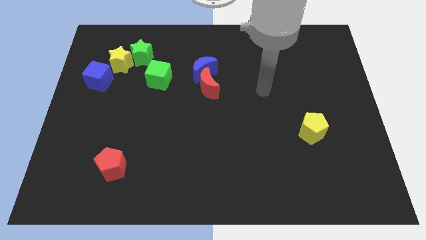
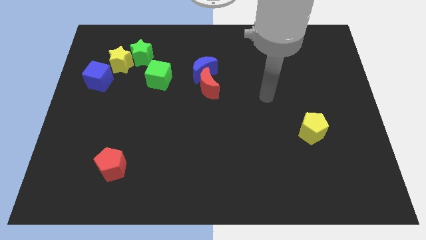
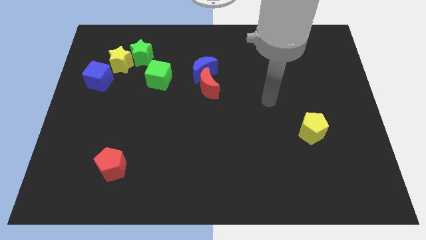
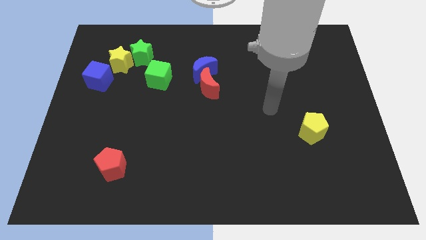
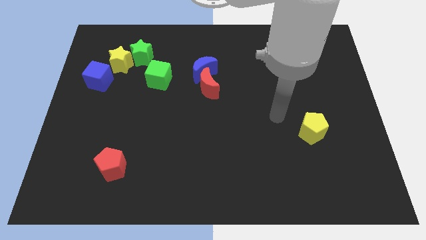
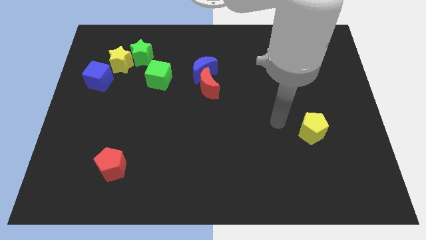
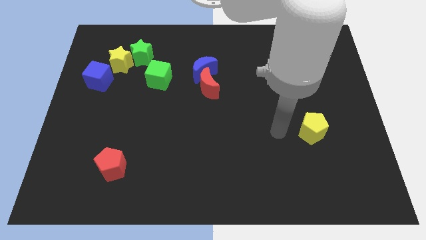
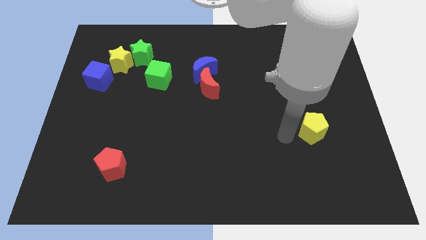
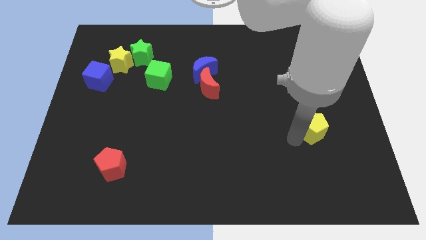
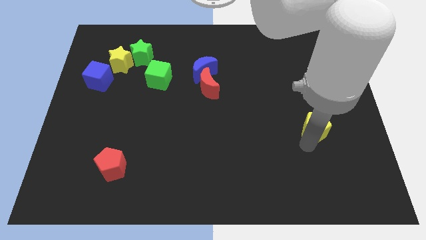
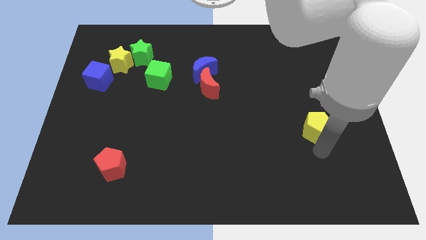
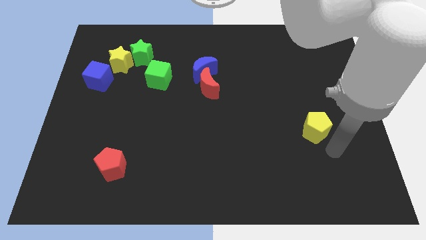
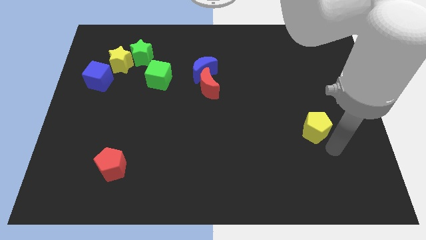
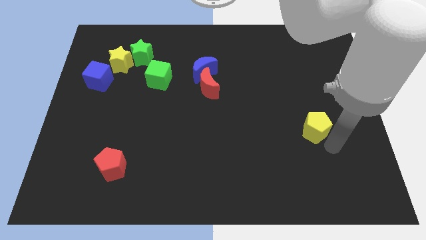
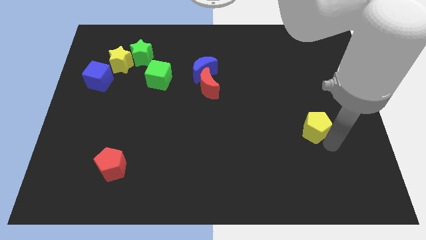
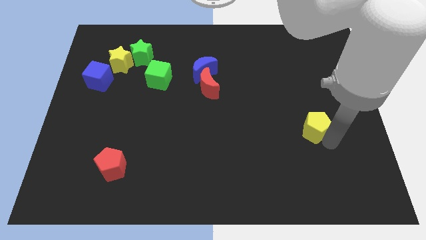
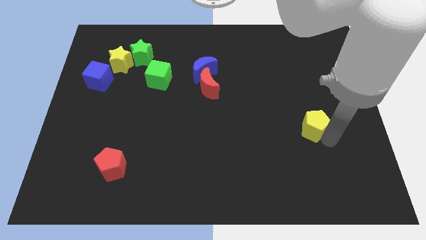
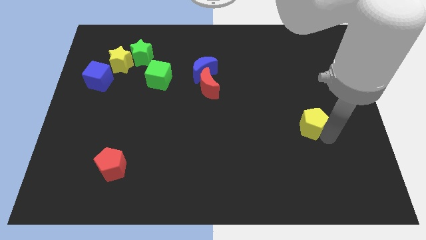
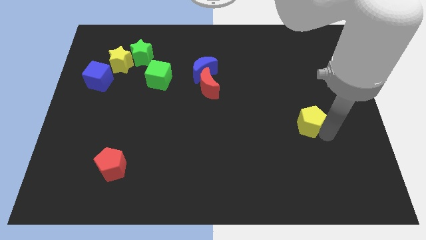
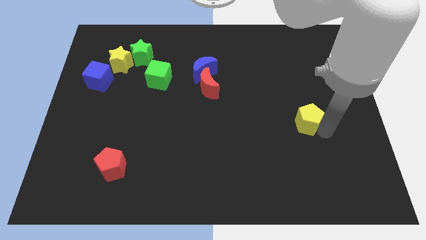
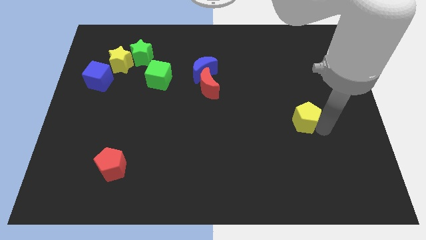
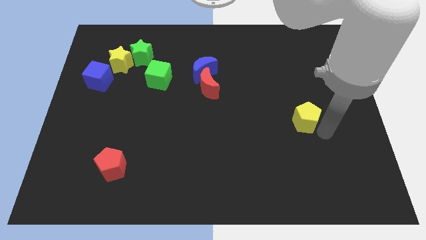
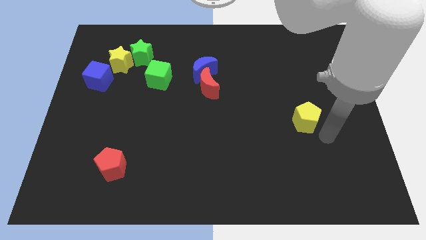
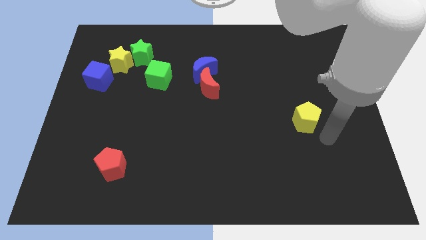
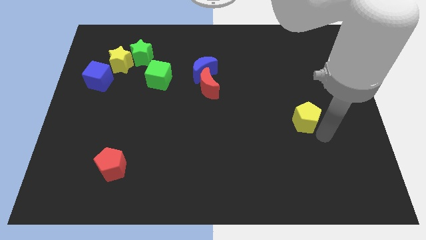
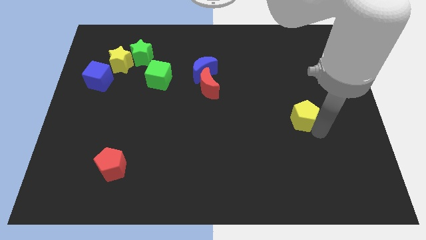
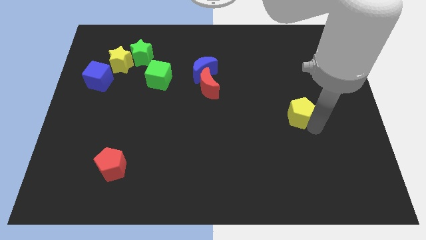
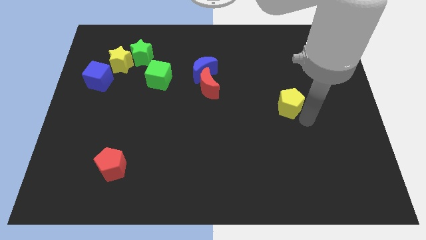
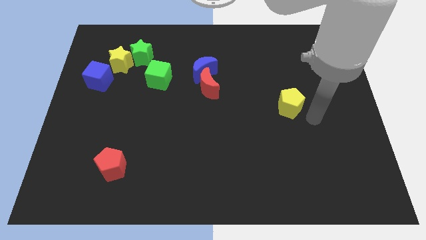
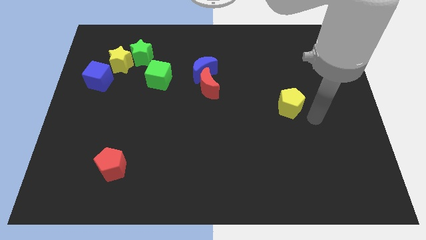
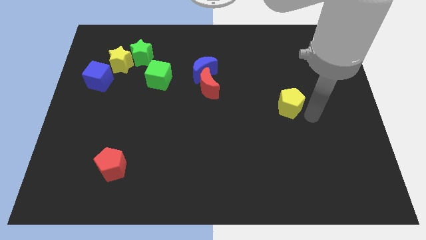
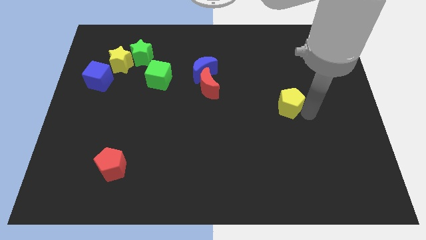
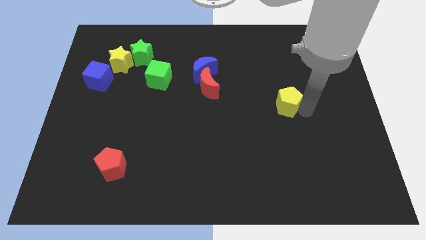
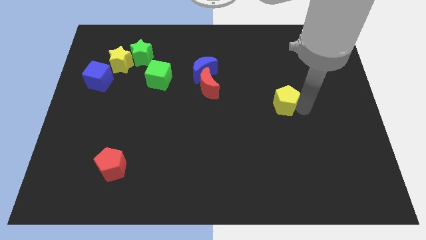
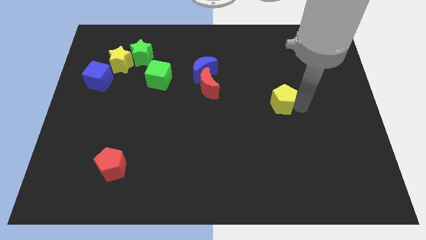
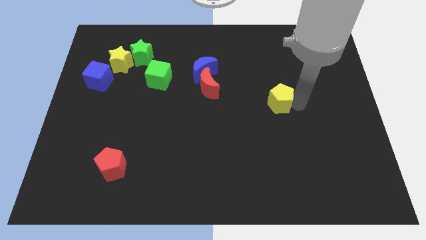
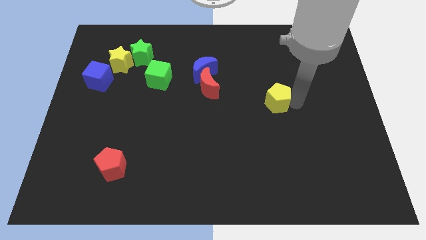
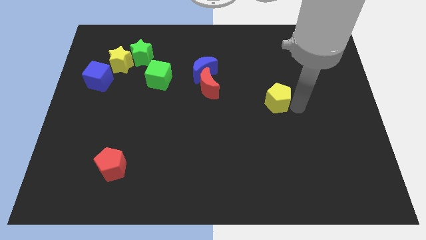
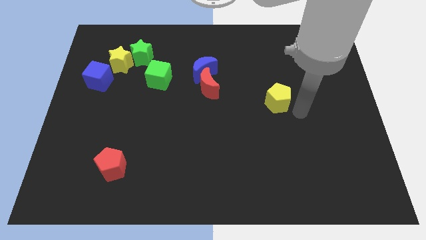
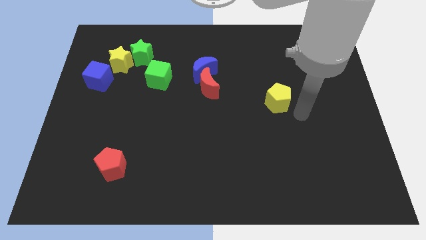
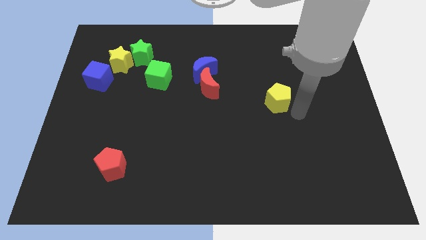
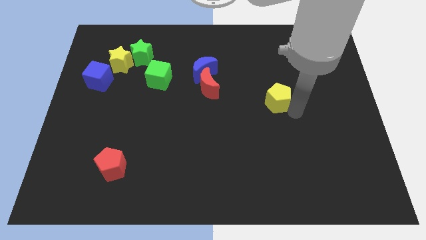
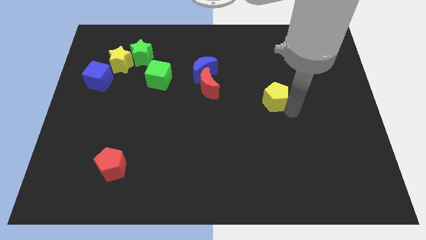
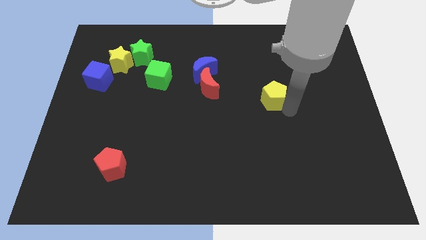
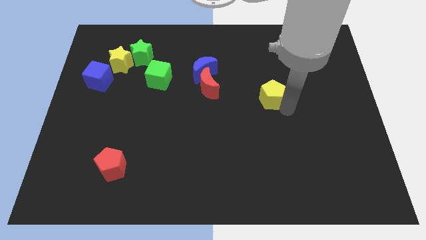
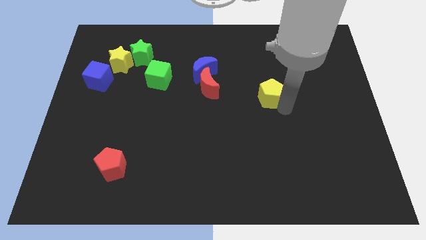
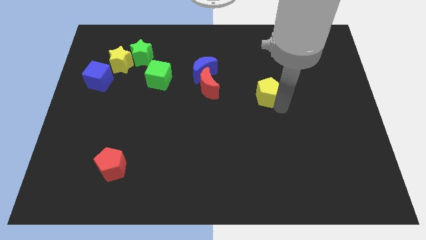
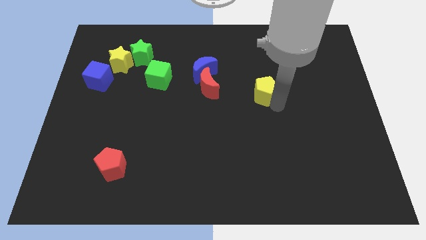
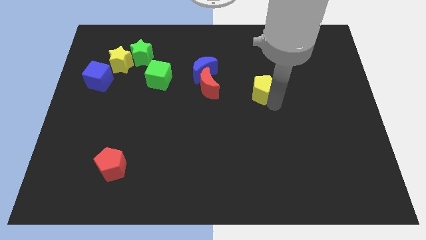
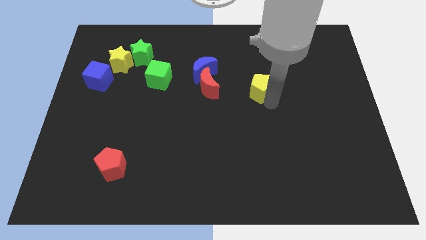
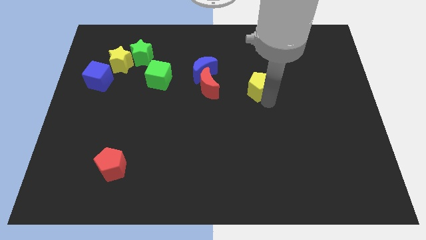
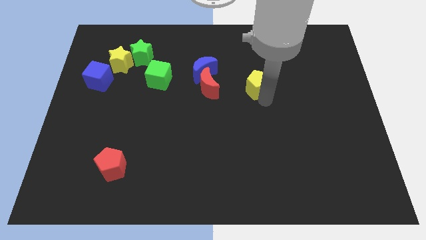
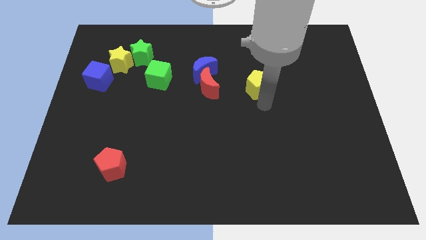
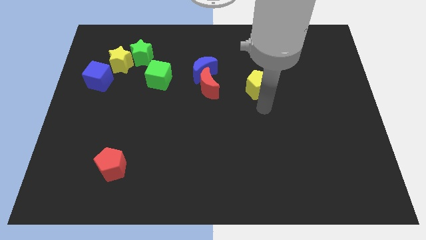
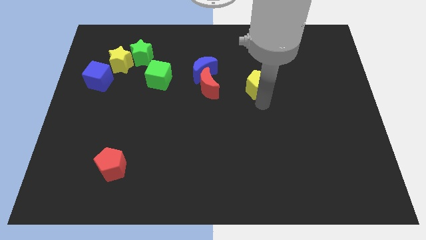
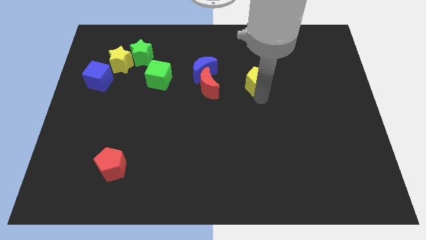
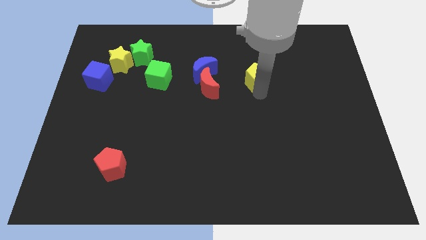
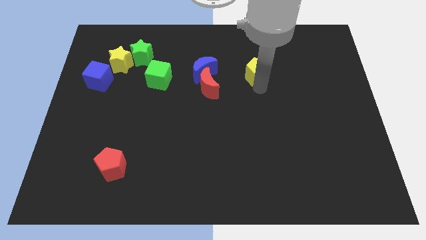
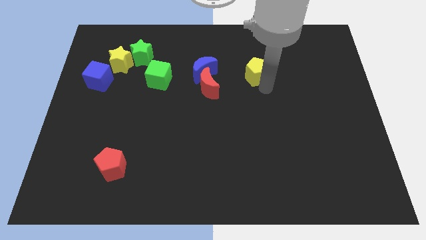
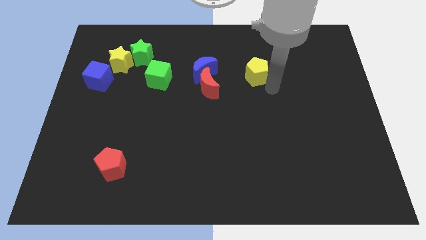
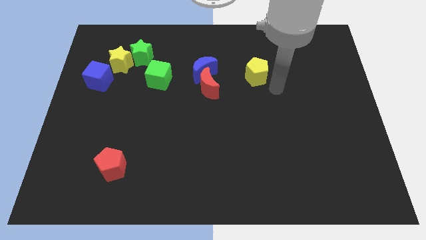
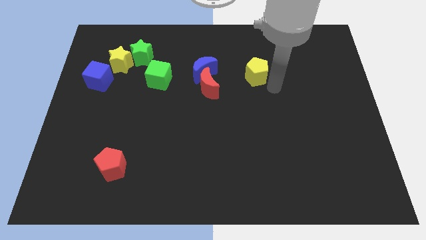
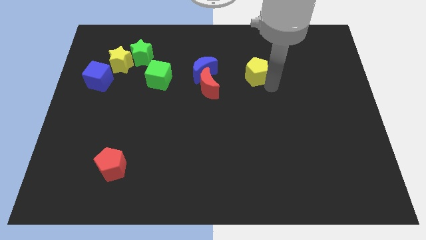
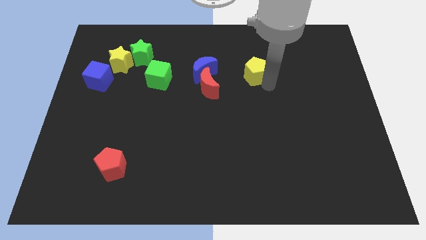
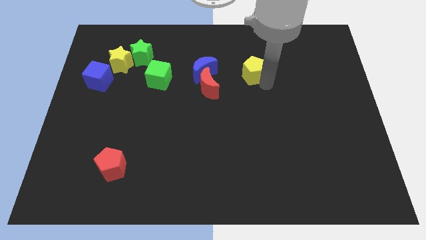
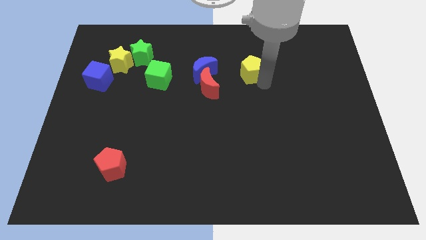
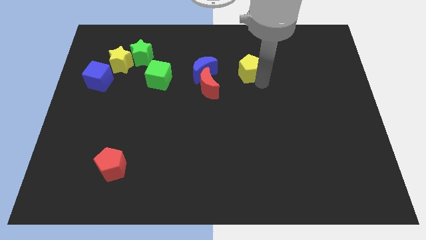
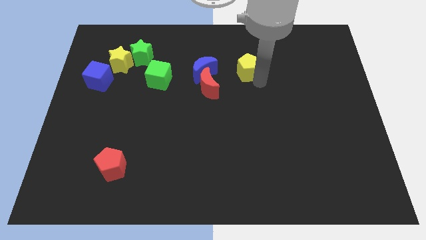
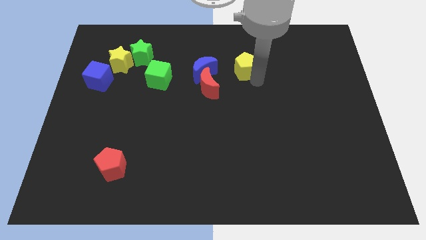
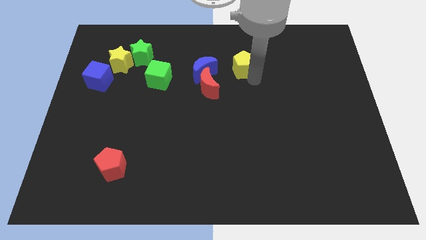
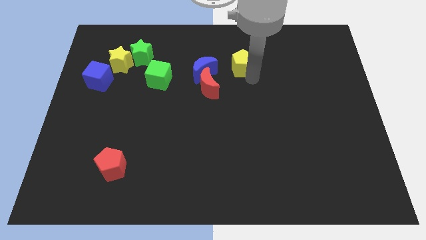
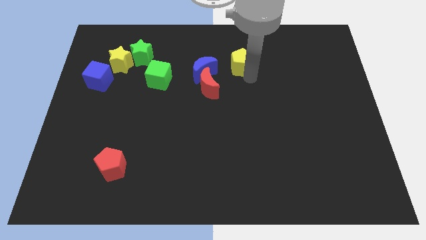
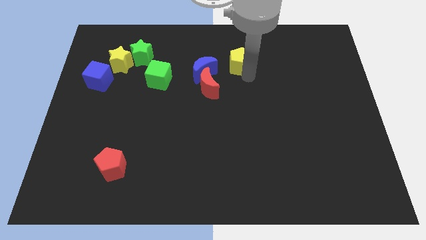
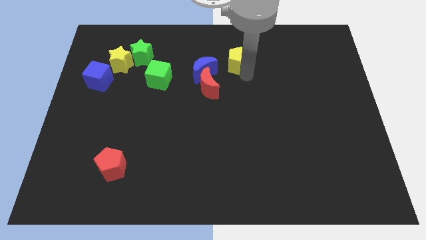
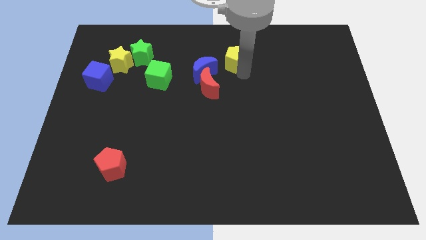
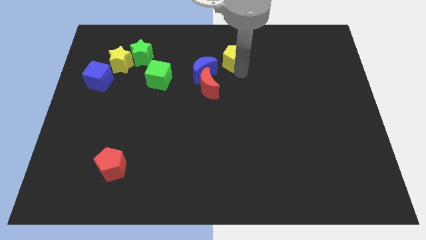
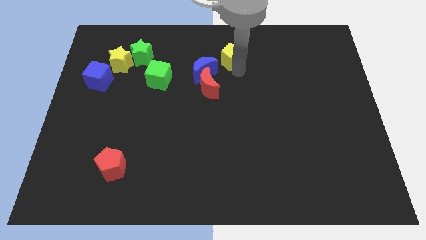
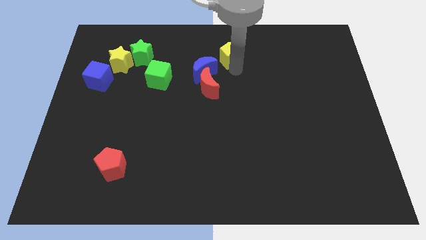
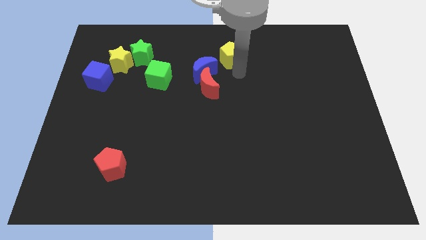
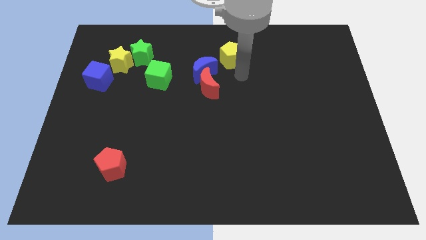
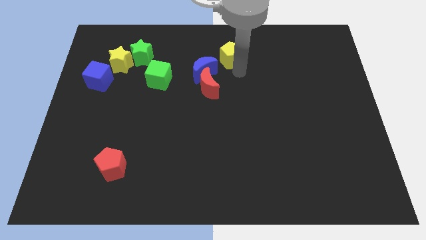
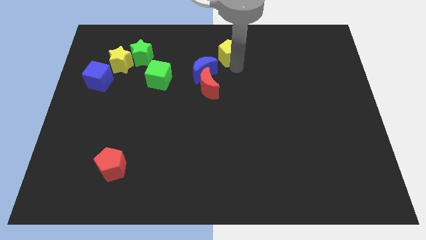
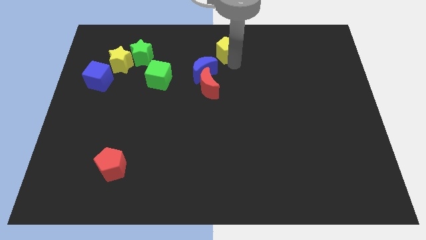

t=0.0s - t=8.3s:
move the yellow pentagon to the top
